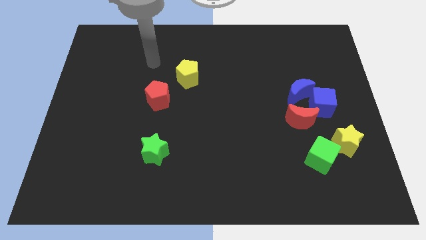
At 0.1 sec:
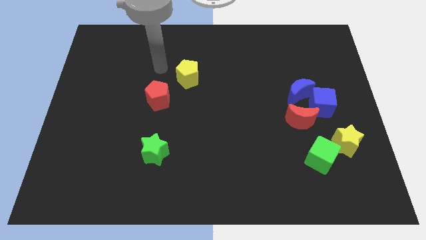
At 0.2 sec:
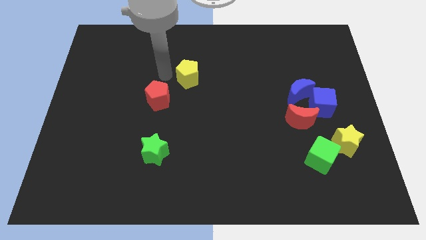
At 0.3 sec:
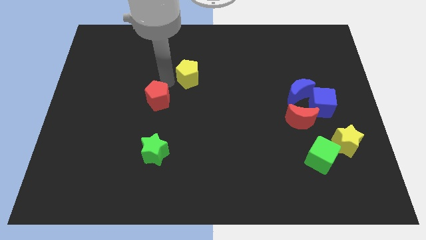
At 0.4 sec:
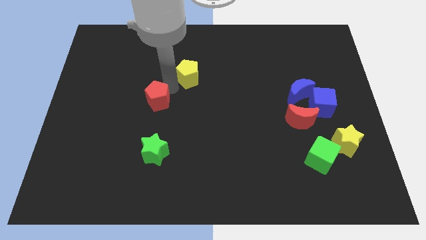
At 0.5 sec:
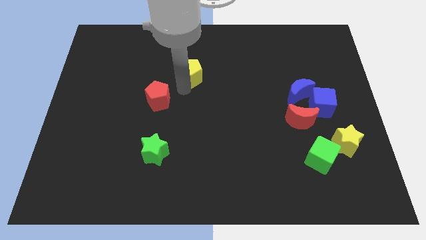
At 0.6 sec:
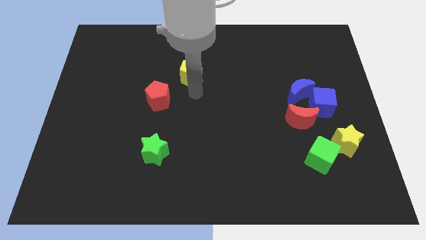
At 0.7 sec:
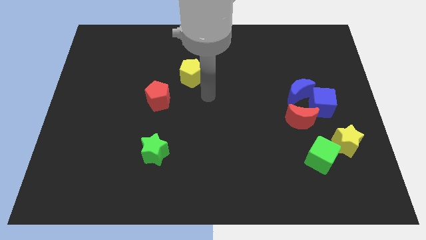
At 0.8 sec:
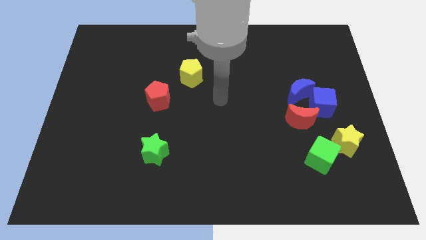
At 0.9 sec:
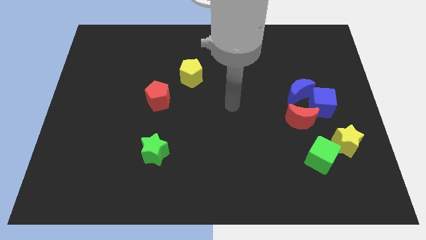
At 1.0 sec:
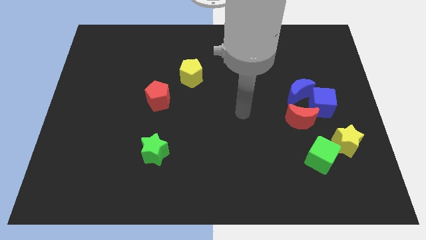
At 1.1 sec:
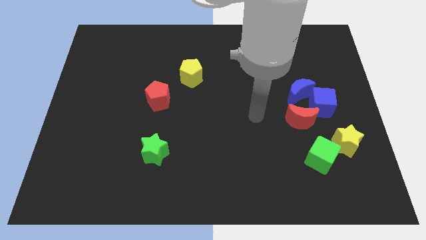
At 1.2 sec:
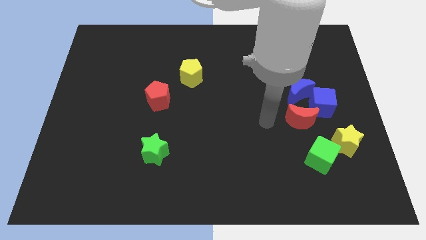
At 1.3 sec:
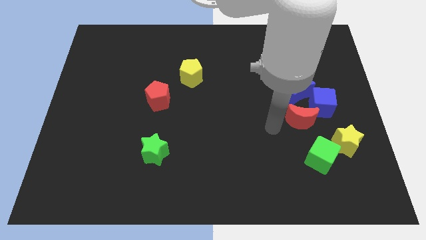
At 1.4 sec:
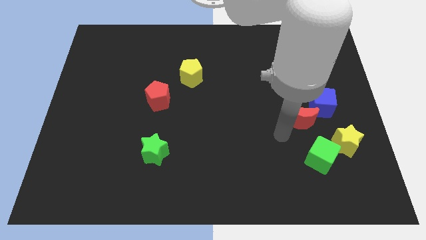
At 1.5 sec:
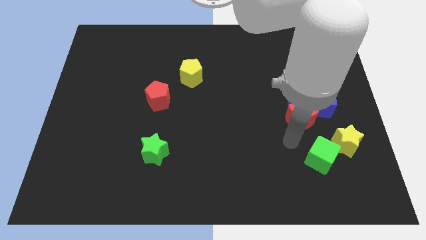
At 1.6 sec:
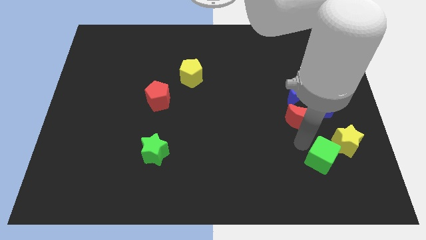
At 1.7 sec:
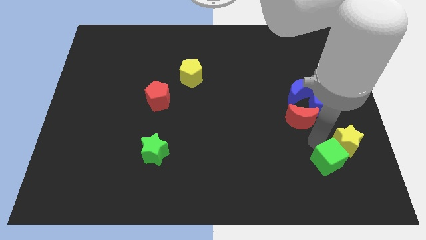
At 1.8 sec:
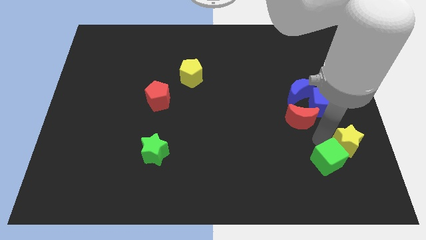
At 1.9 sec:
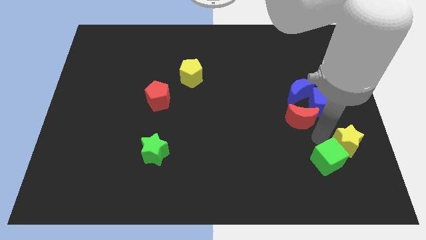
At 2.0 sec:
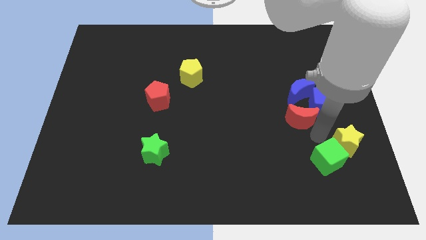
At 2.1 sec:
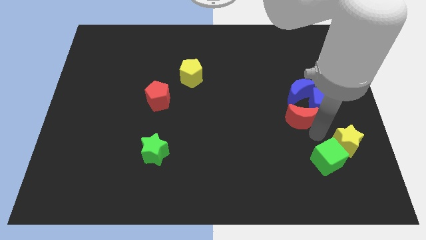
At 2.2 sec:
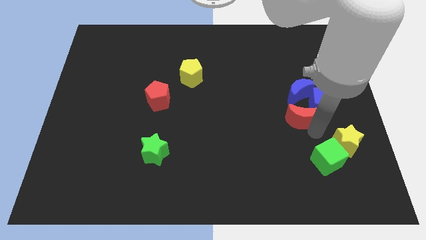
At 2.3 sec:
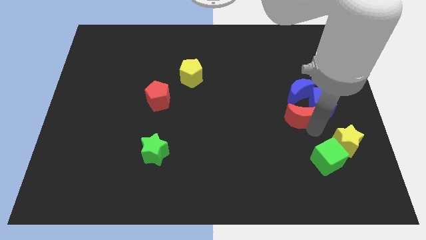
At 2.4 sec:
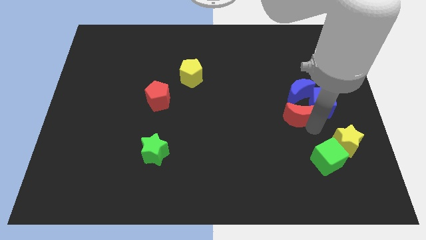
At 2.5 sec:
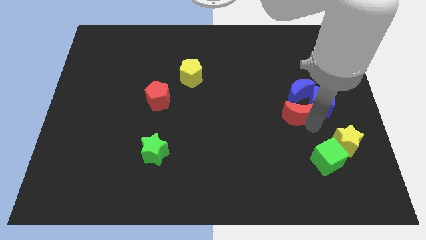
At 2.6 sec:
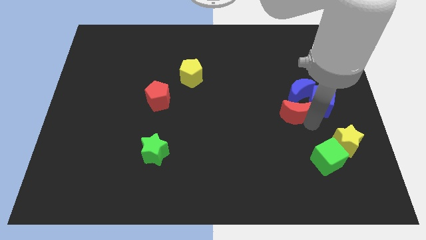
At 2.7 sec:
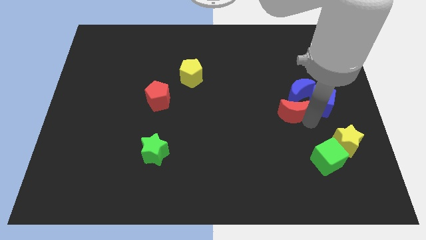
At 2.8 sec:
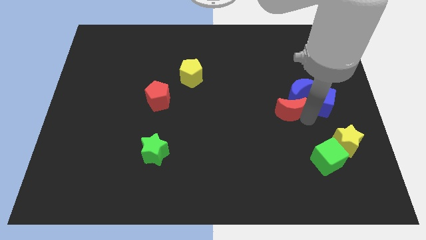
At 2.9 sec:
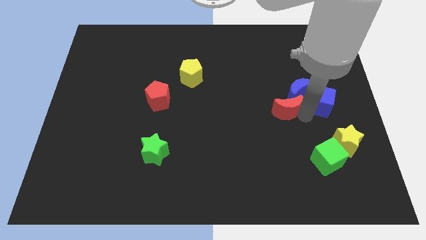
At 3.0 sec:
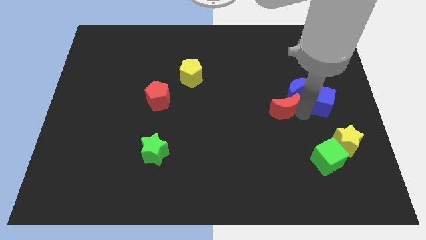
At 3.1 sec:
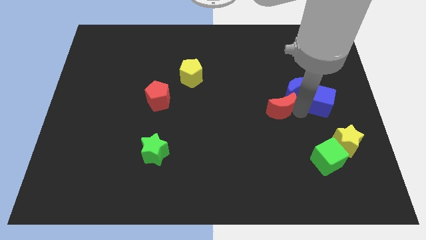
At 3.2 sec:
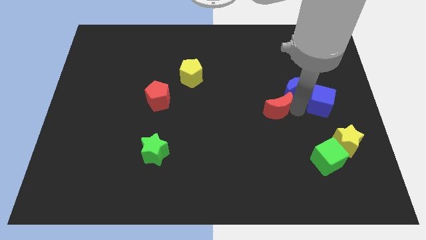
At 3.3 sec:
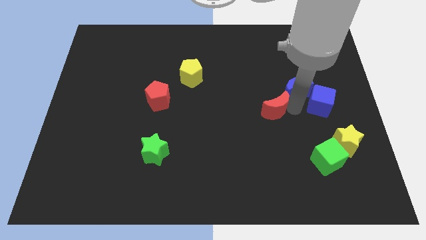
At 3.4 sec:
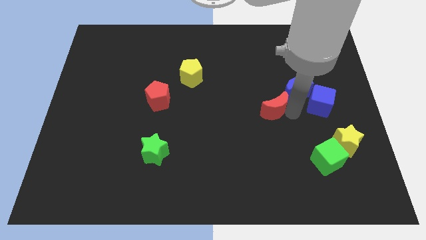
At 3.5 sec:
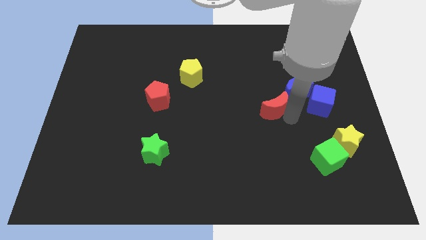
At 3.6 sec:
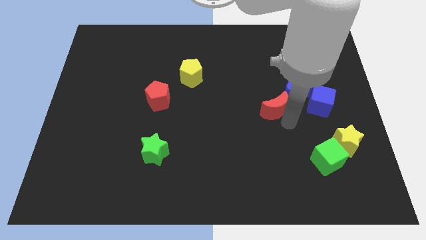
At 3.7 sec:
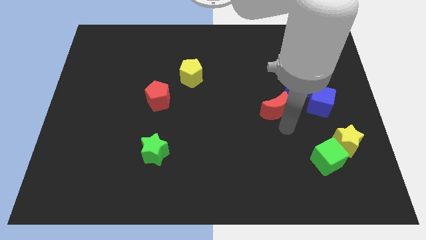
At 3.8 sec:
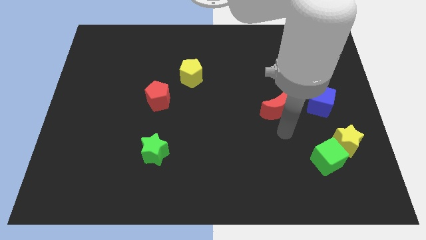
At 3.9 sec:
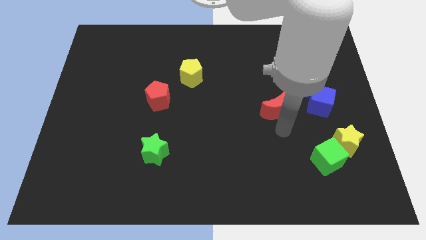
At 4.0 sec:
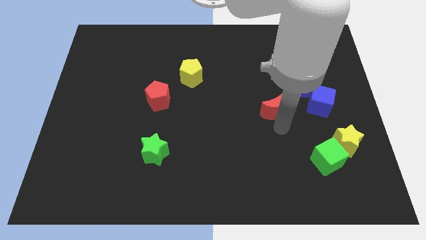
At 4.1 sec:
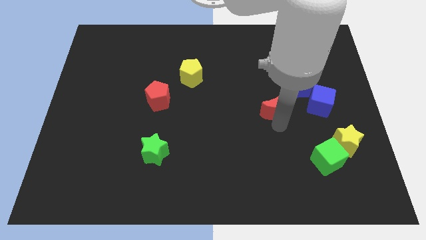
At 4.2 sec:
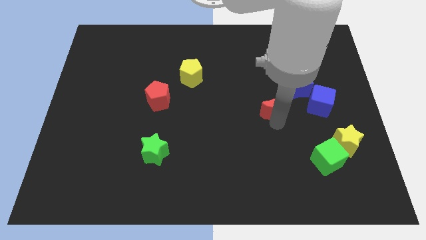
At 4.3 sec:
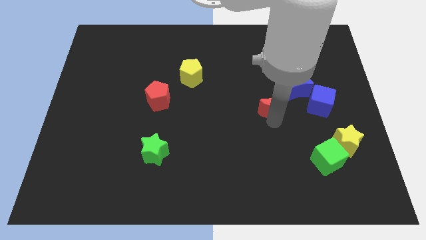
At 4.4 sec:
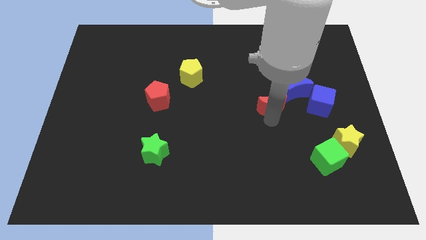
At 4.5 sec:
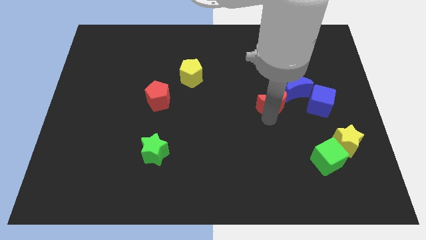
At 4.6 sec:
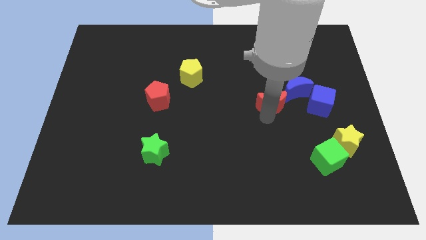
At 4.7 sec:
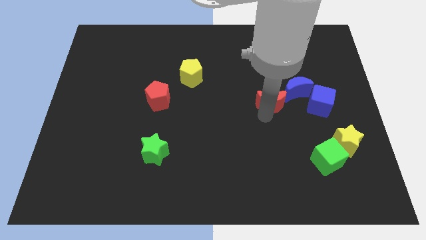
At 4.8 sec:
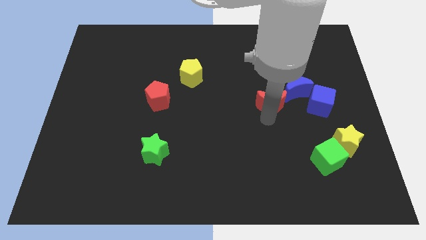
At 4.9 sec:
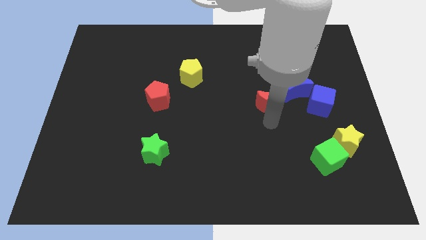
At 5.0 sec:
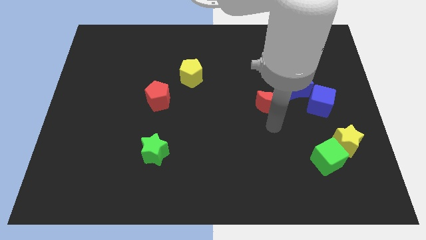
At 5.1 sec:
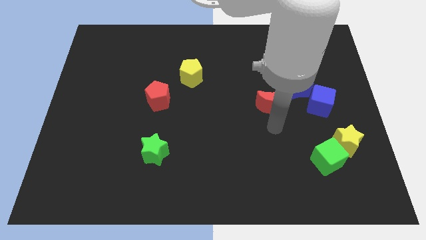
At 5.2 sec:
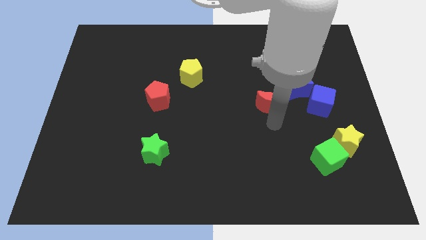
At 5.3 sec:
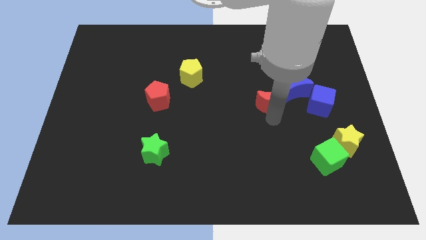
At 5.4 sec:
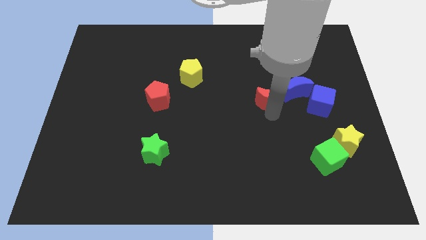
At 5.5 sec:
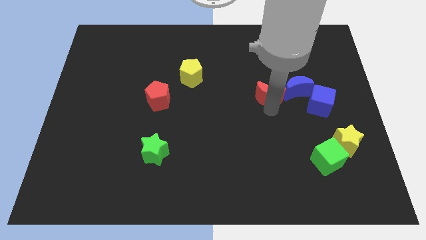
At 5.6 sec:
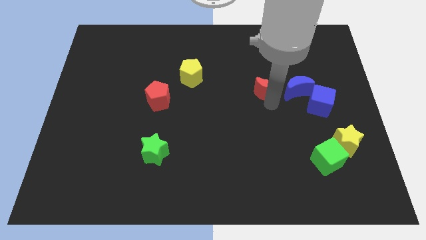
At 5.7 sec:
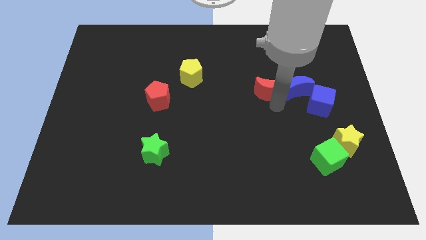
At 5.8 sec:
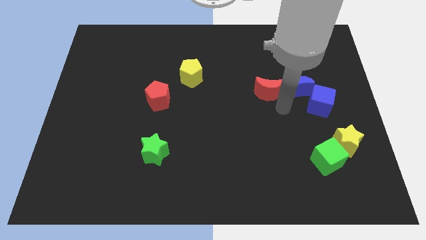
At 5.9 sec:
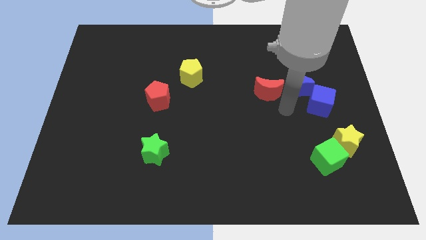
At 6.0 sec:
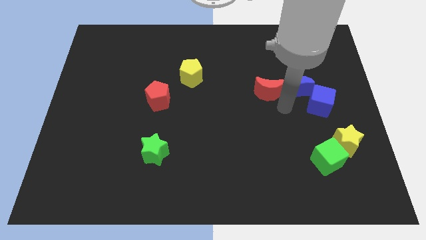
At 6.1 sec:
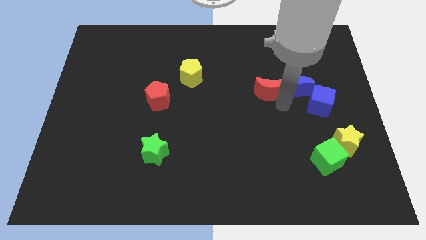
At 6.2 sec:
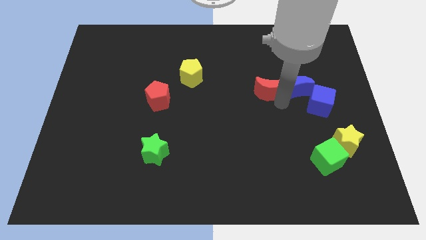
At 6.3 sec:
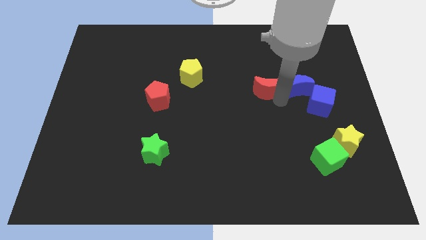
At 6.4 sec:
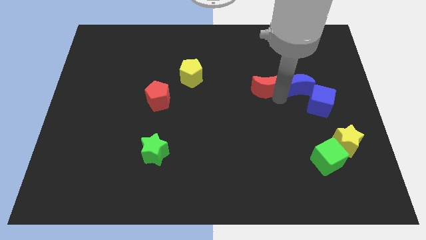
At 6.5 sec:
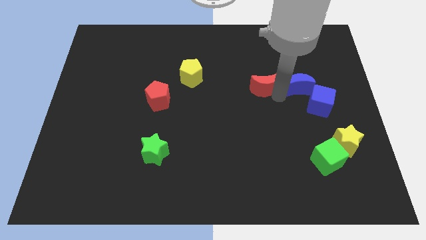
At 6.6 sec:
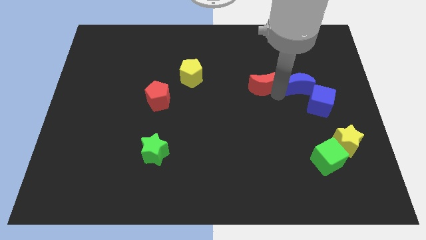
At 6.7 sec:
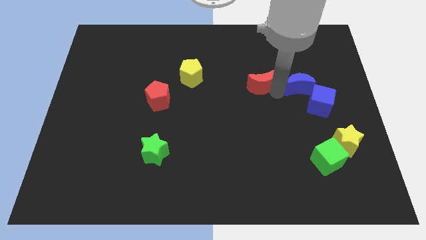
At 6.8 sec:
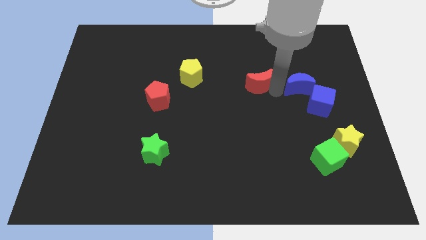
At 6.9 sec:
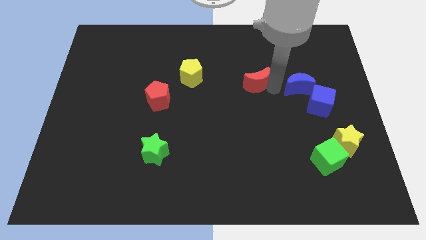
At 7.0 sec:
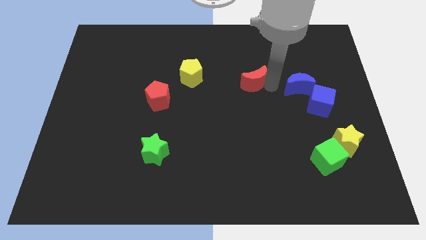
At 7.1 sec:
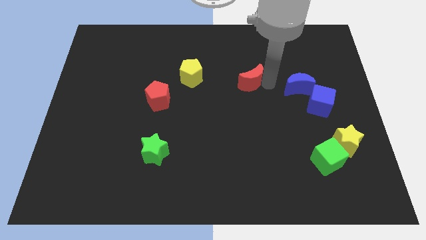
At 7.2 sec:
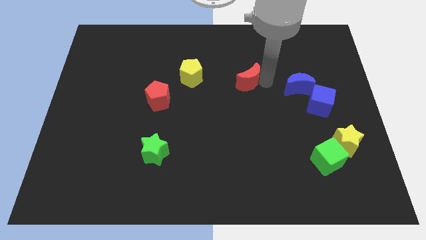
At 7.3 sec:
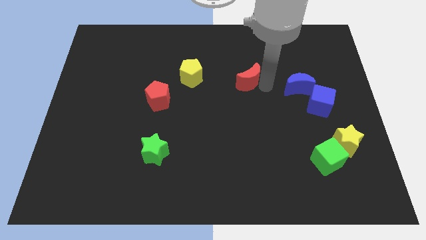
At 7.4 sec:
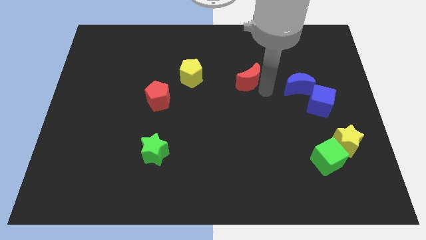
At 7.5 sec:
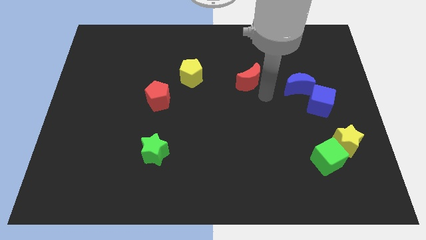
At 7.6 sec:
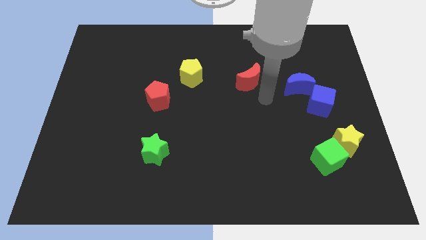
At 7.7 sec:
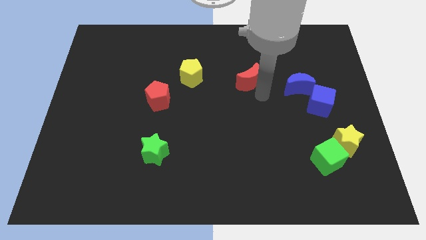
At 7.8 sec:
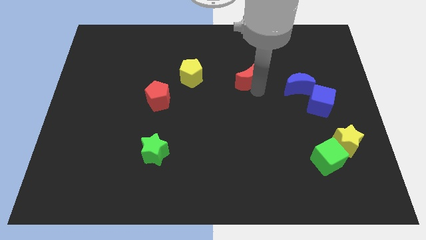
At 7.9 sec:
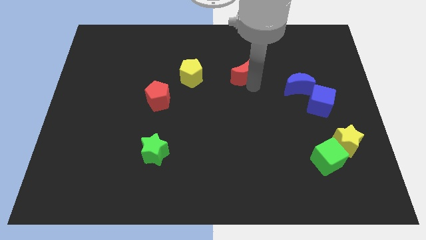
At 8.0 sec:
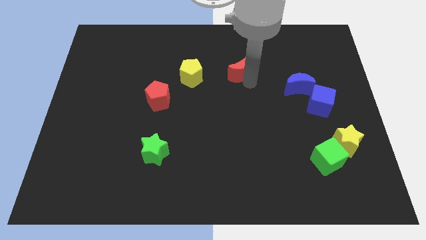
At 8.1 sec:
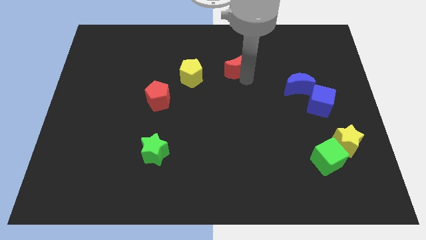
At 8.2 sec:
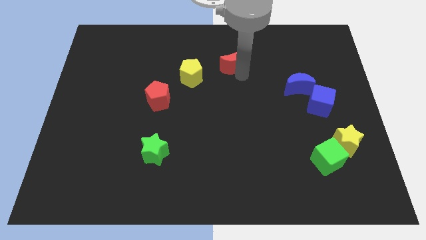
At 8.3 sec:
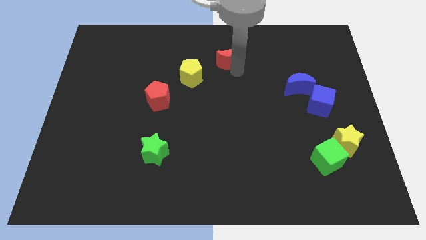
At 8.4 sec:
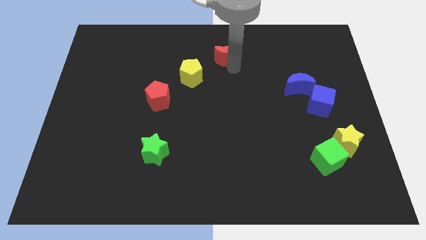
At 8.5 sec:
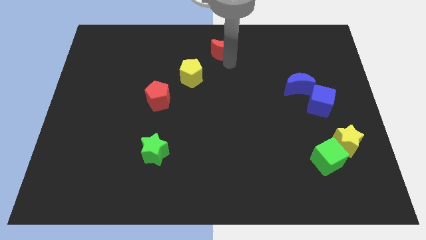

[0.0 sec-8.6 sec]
put the red moon to the top side
